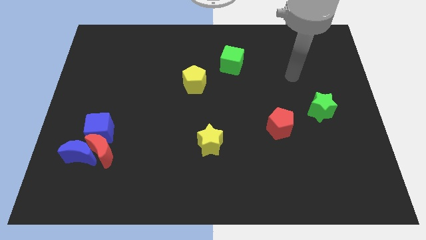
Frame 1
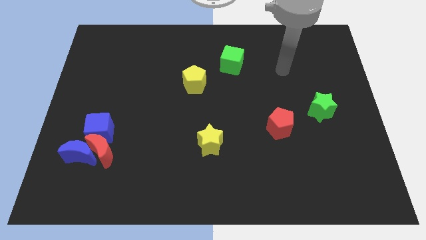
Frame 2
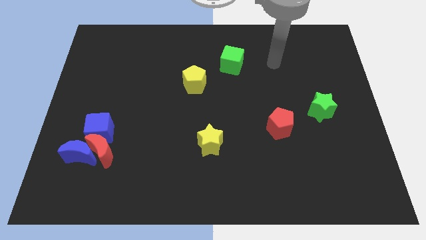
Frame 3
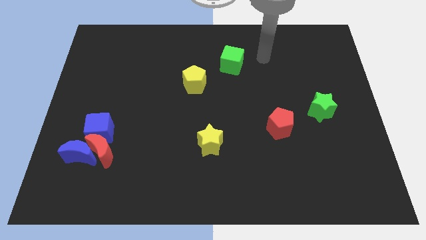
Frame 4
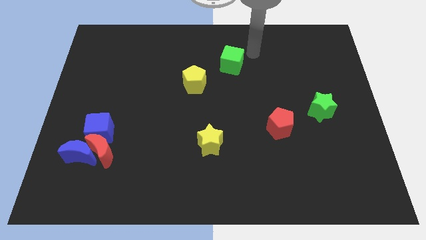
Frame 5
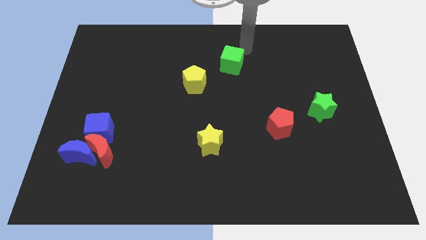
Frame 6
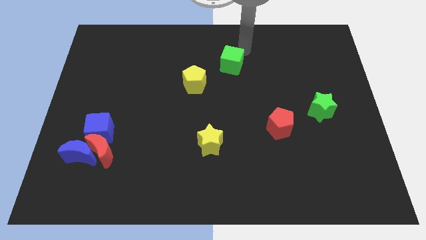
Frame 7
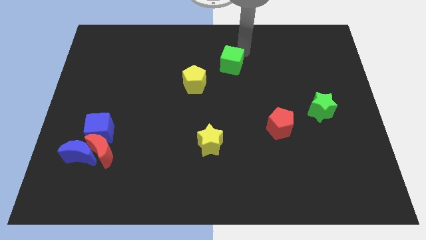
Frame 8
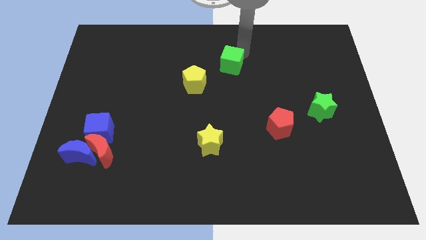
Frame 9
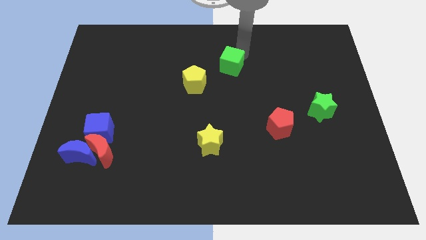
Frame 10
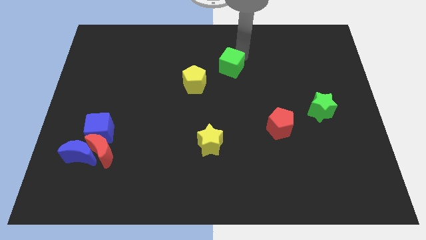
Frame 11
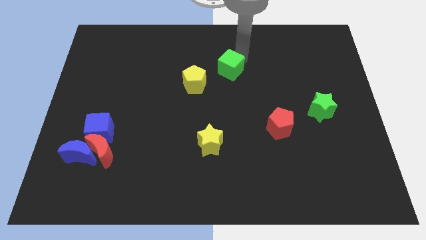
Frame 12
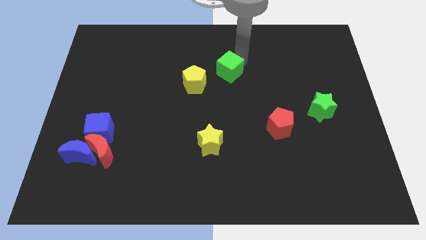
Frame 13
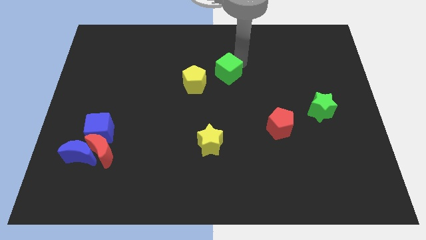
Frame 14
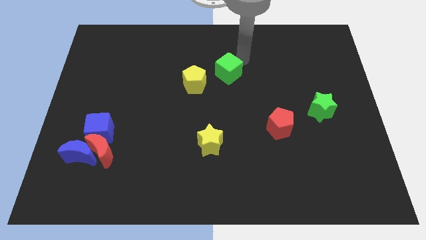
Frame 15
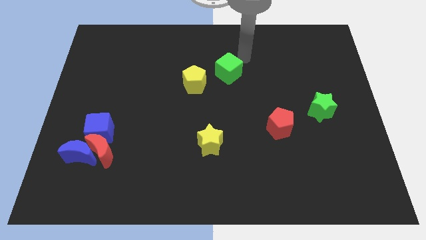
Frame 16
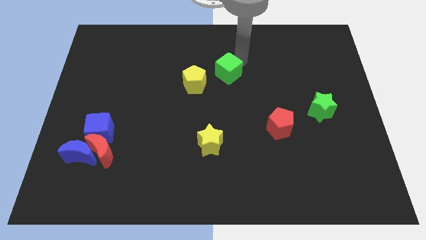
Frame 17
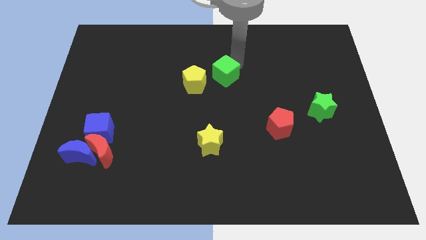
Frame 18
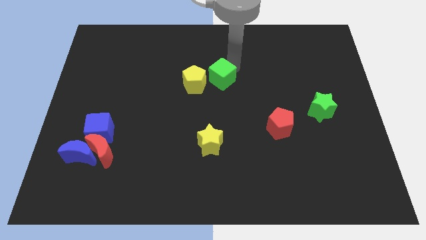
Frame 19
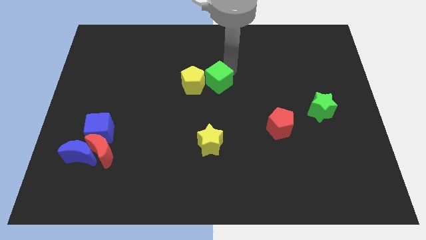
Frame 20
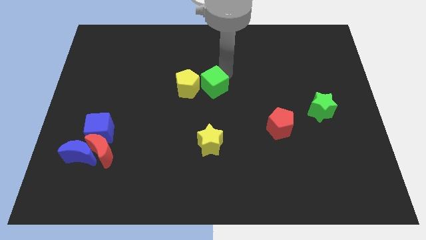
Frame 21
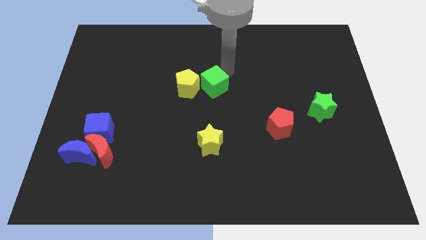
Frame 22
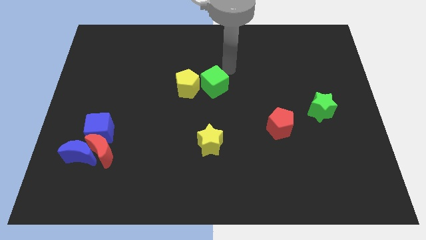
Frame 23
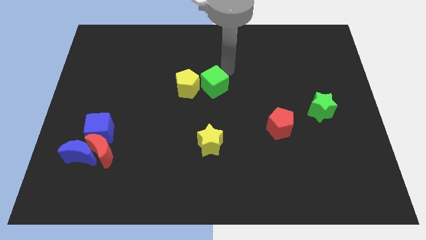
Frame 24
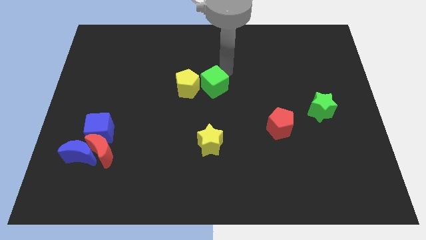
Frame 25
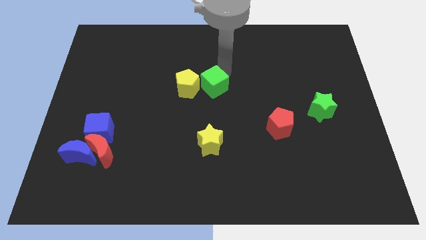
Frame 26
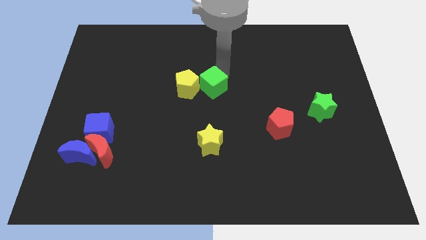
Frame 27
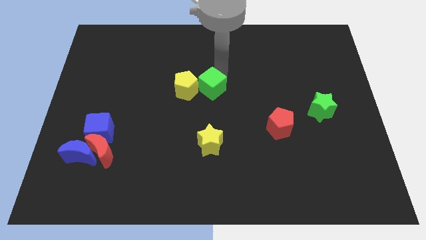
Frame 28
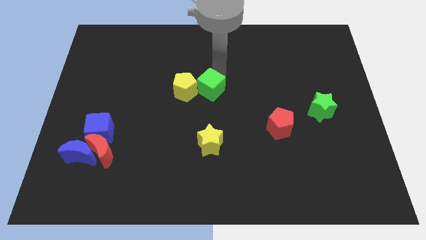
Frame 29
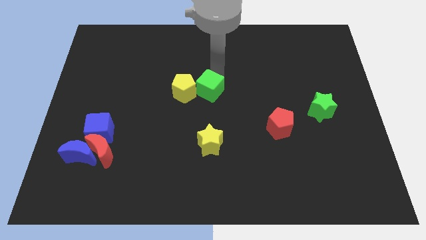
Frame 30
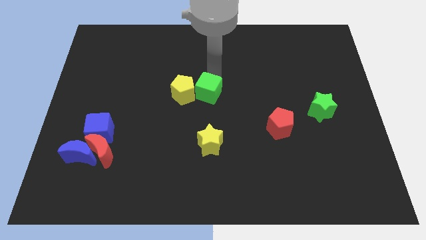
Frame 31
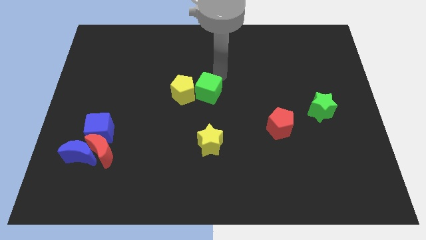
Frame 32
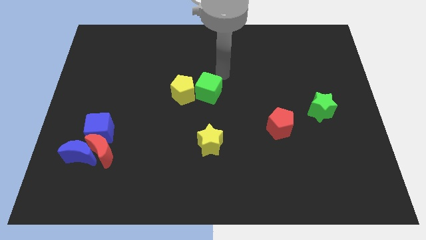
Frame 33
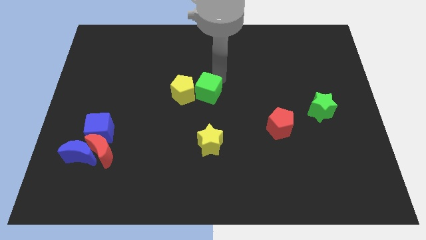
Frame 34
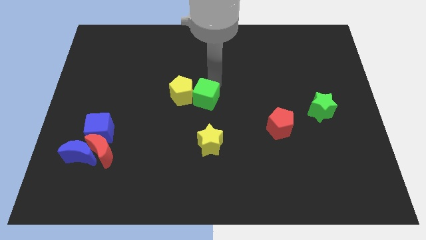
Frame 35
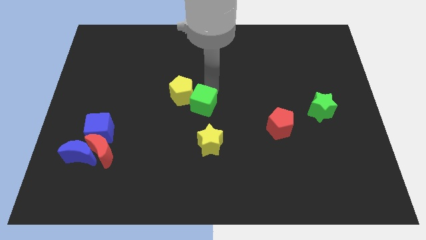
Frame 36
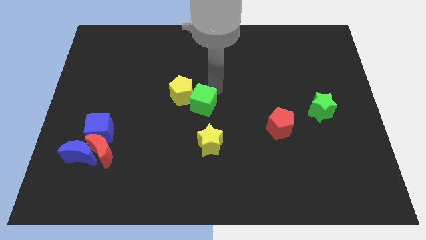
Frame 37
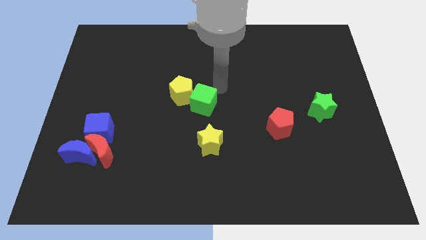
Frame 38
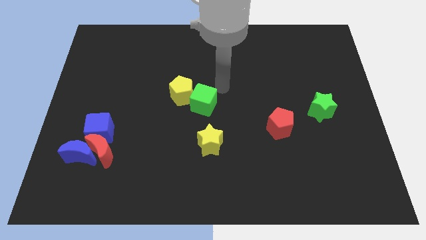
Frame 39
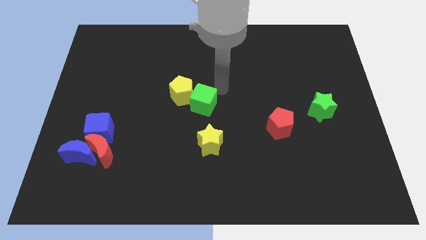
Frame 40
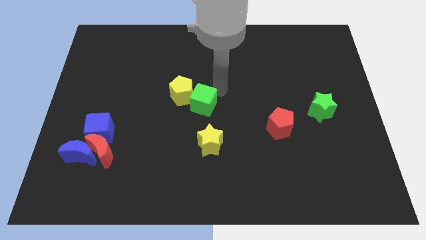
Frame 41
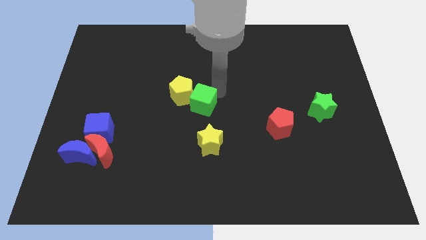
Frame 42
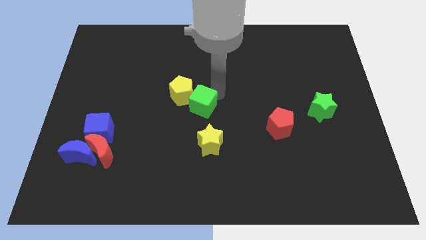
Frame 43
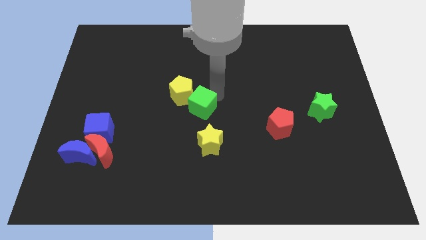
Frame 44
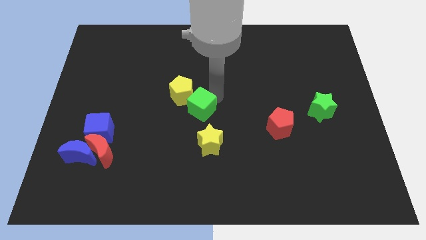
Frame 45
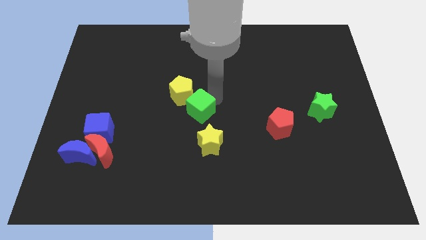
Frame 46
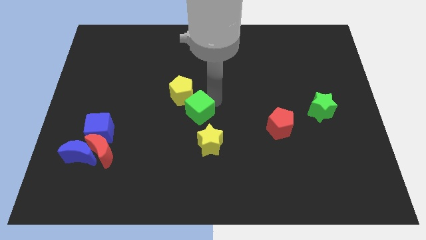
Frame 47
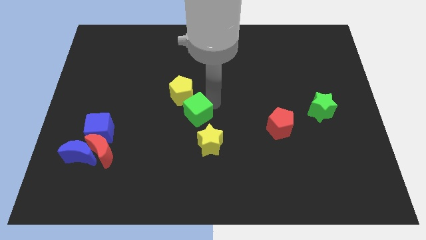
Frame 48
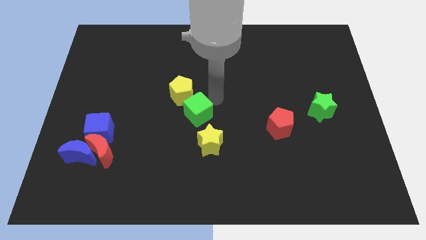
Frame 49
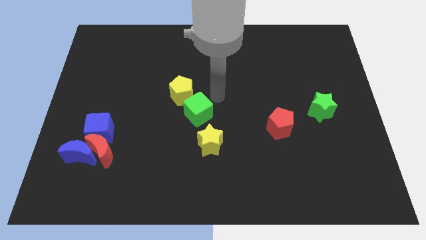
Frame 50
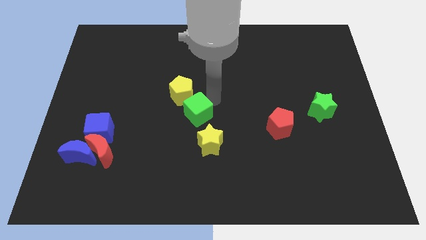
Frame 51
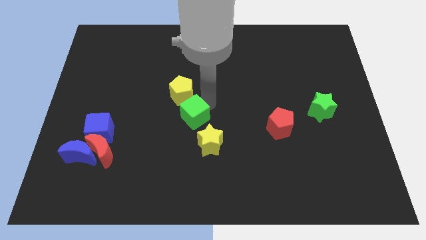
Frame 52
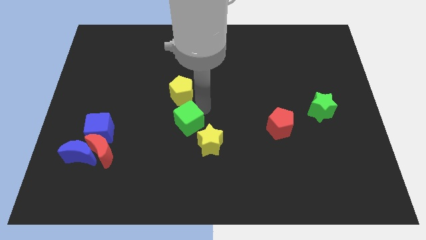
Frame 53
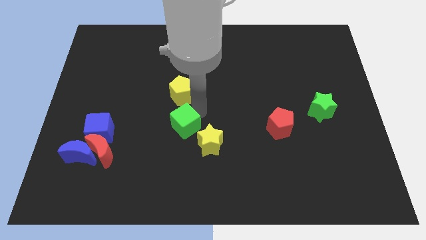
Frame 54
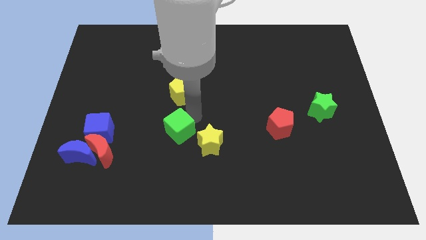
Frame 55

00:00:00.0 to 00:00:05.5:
put the green cube left of the yellow star

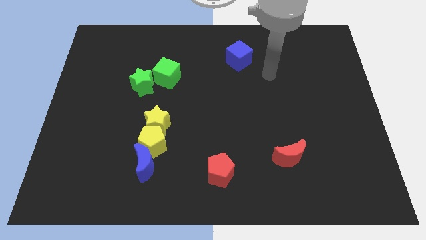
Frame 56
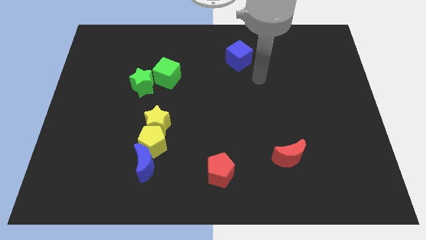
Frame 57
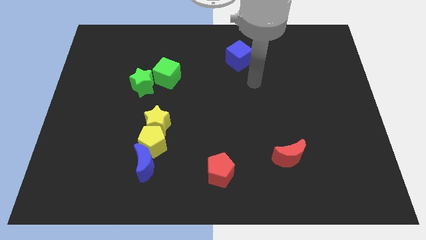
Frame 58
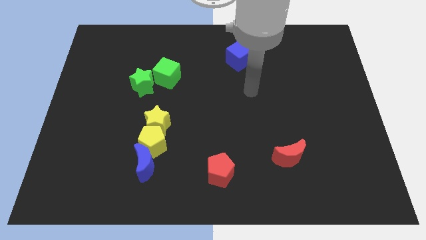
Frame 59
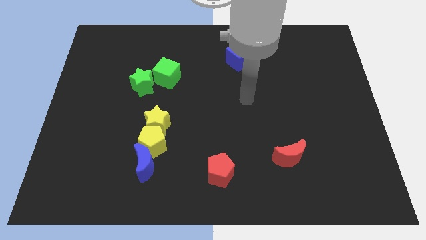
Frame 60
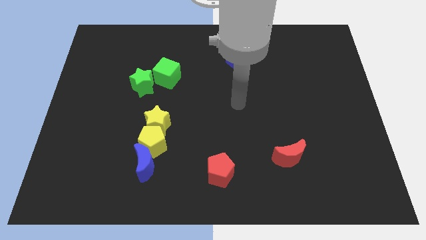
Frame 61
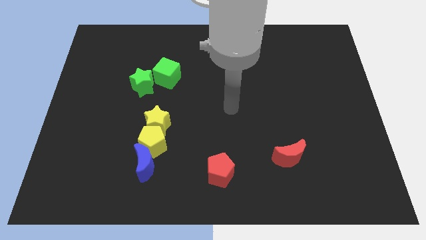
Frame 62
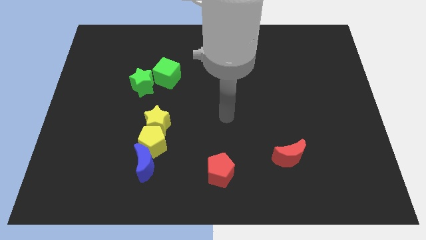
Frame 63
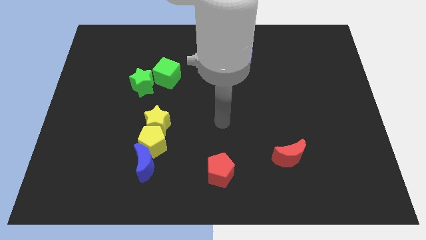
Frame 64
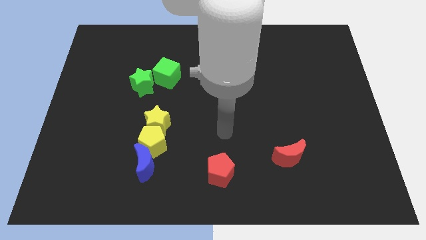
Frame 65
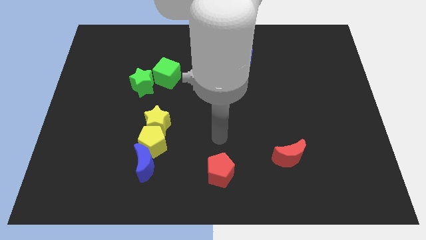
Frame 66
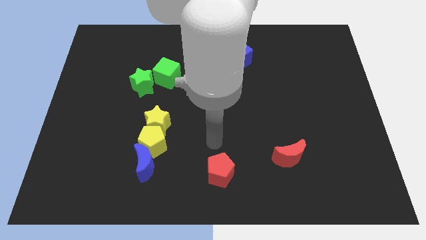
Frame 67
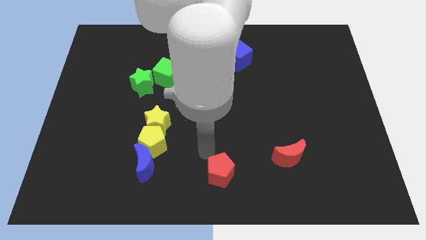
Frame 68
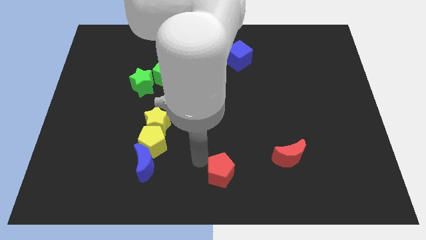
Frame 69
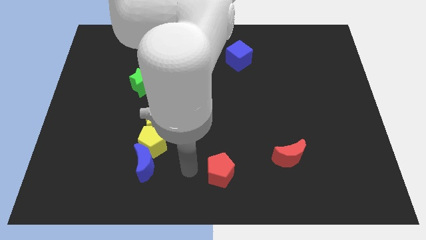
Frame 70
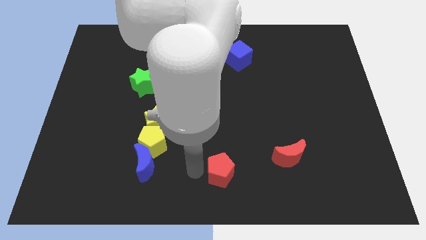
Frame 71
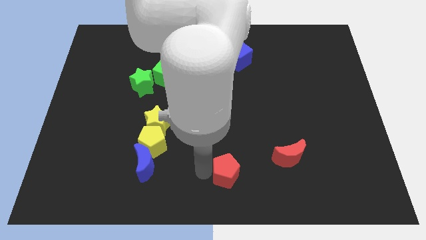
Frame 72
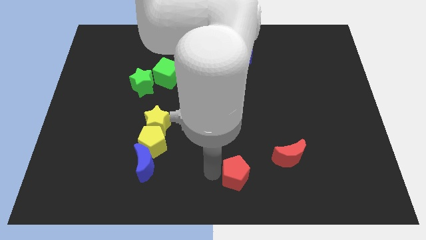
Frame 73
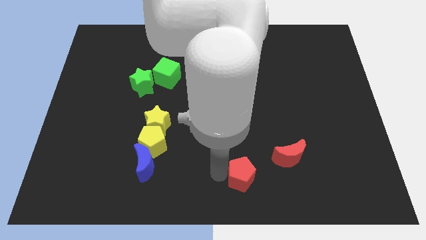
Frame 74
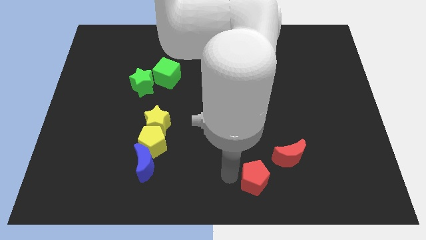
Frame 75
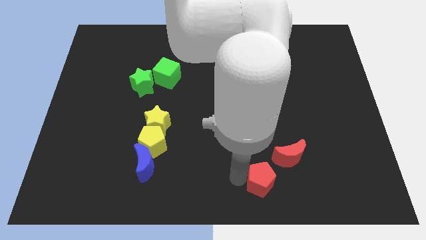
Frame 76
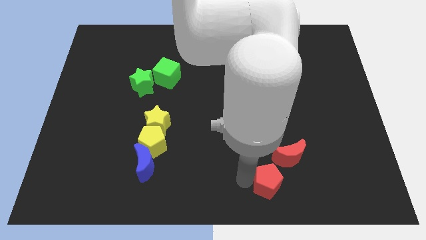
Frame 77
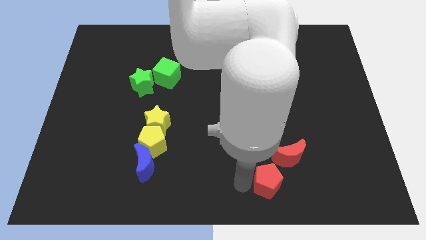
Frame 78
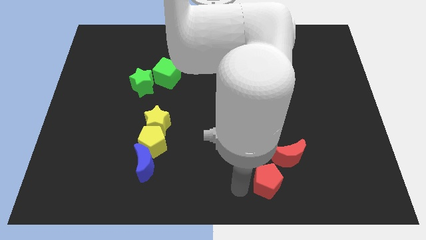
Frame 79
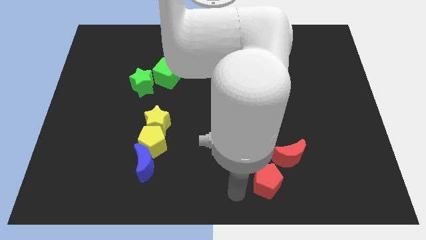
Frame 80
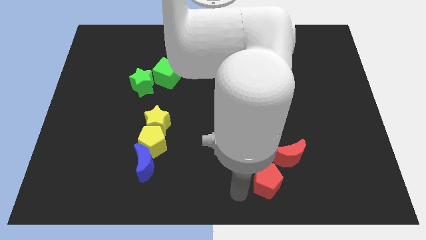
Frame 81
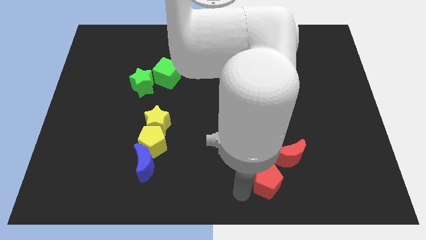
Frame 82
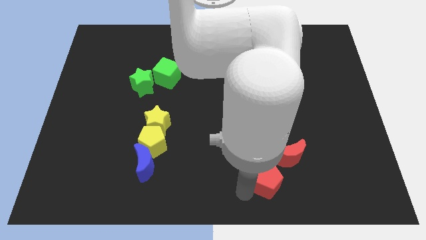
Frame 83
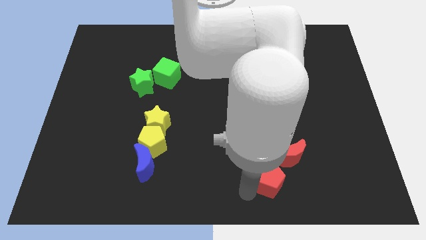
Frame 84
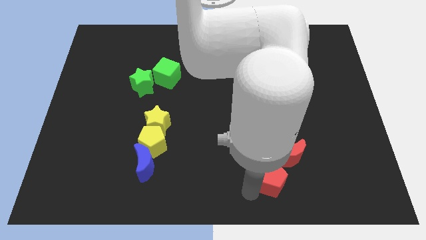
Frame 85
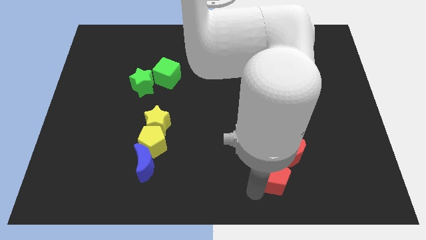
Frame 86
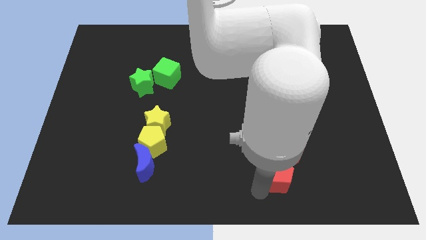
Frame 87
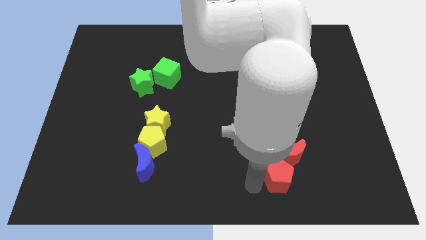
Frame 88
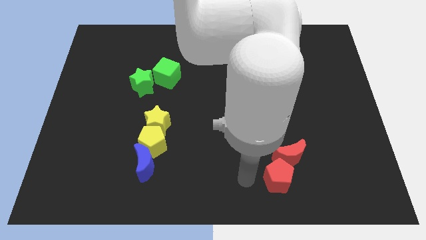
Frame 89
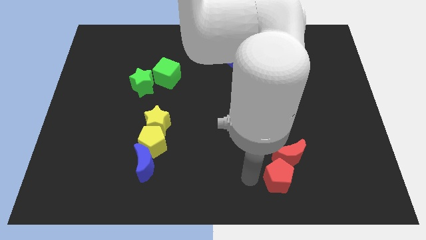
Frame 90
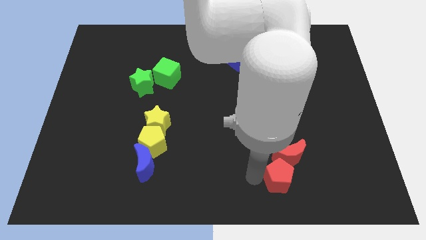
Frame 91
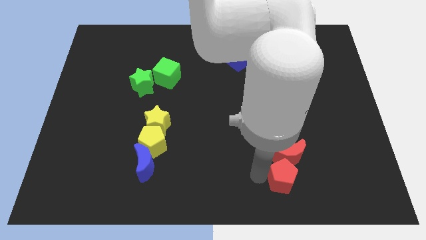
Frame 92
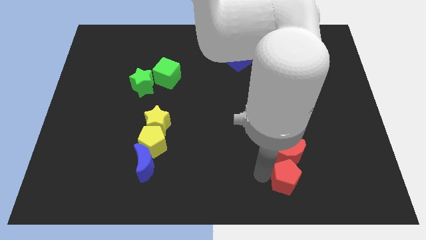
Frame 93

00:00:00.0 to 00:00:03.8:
put the red pentagon diagonally down and to the right of the red moon
